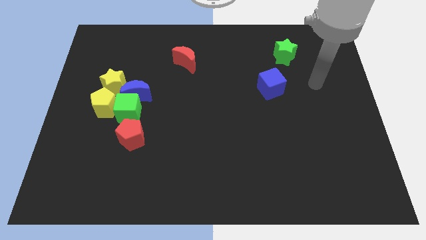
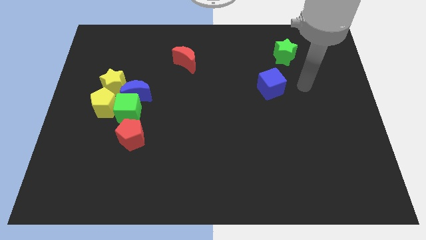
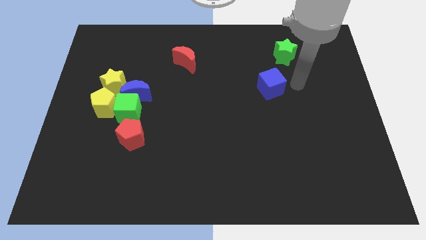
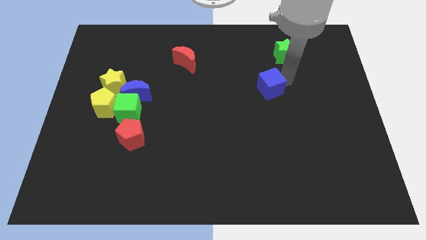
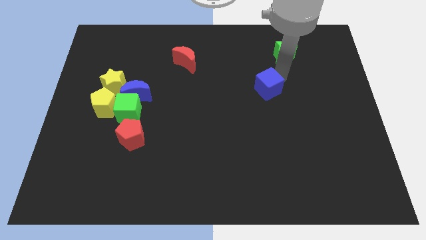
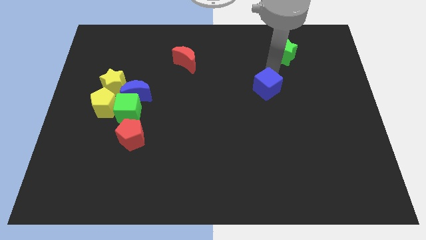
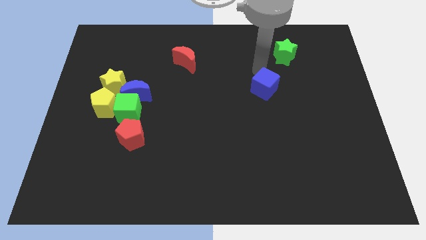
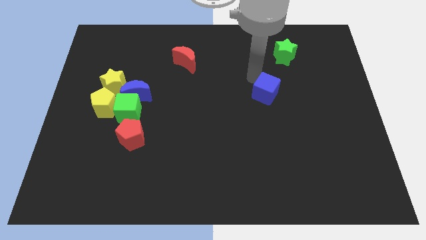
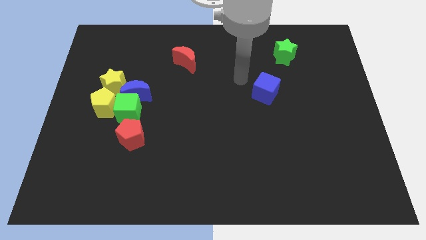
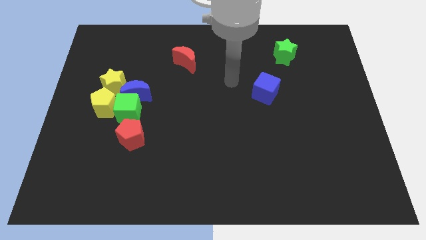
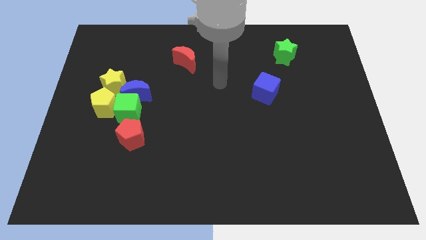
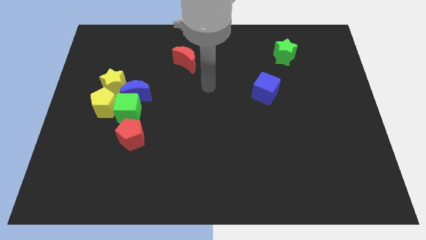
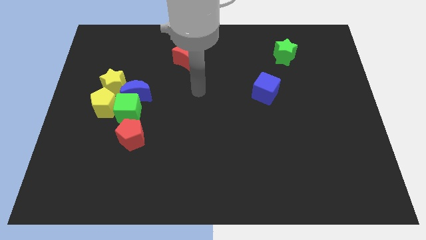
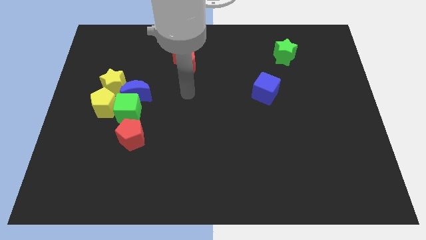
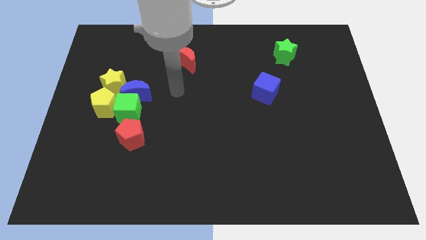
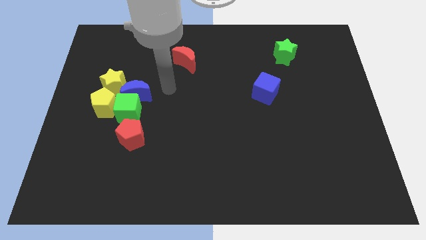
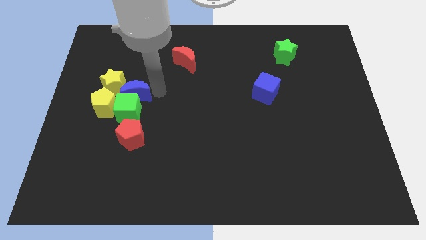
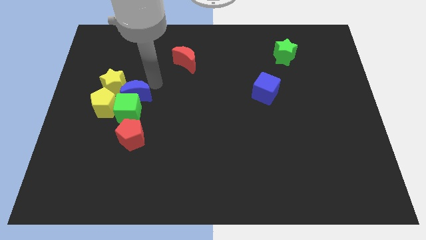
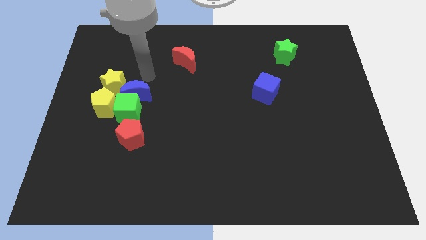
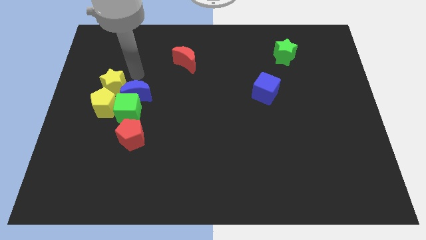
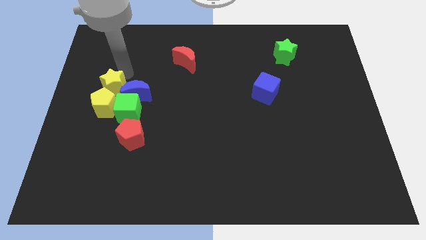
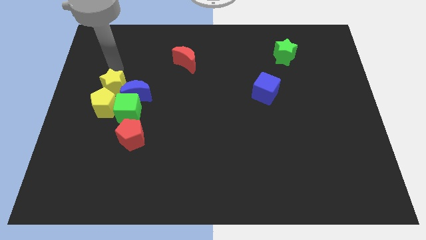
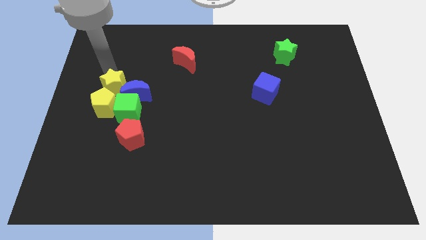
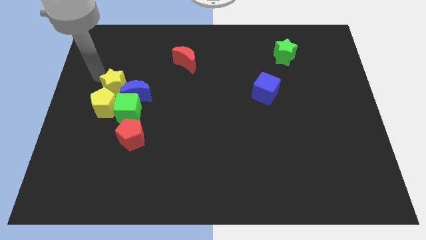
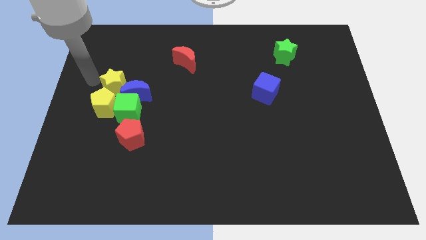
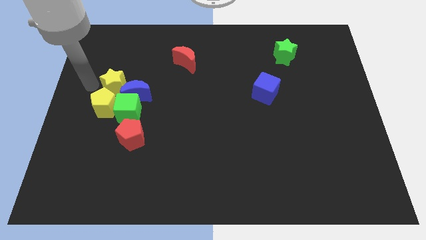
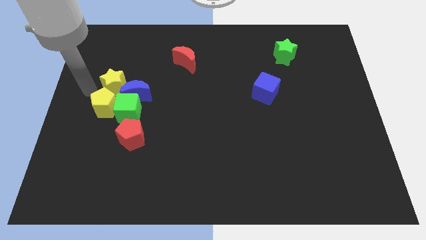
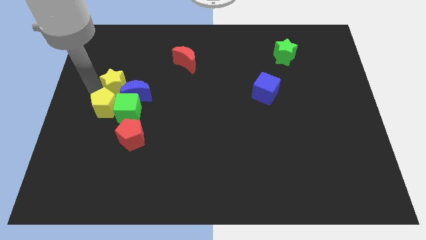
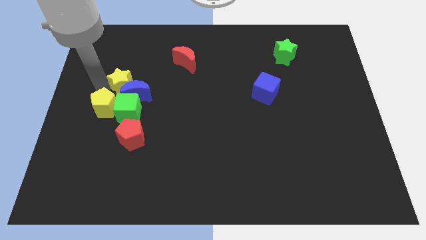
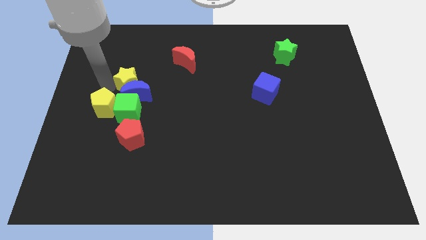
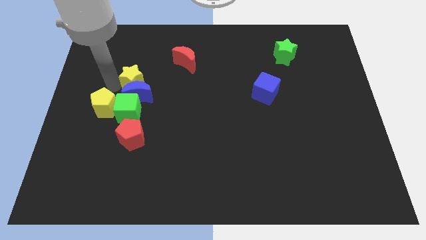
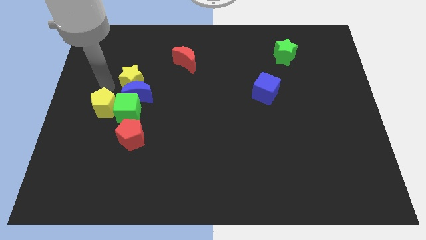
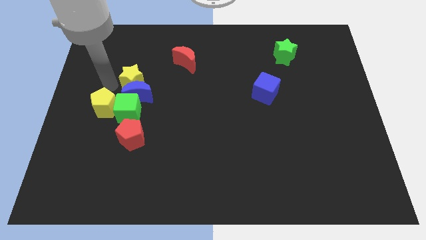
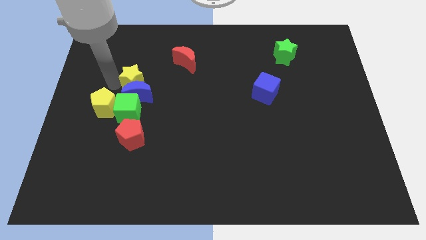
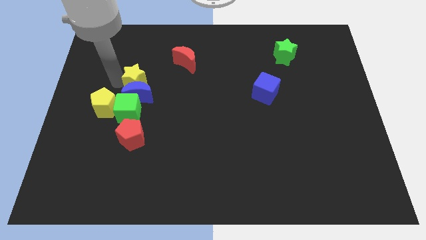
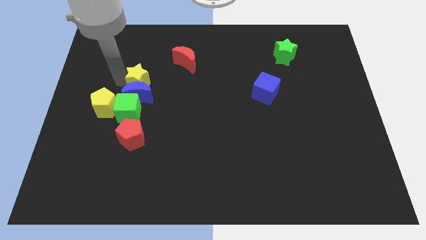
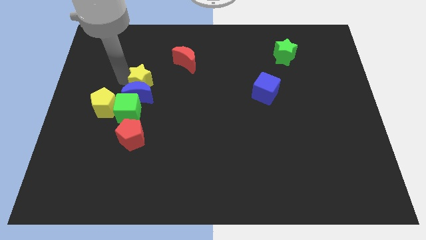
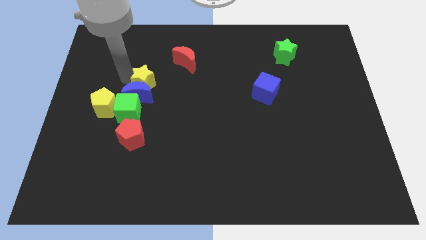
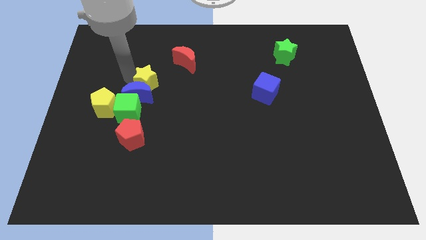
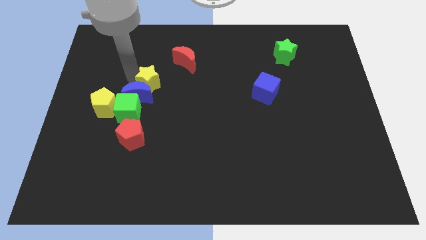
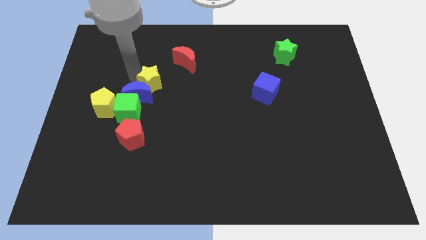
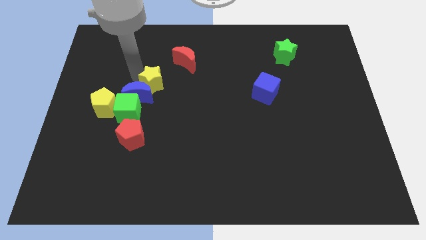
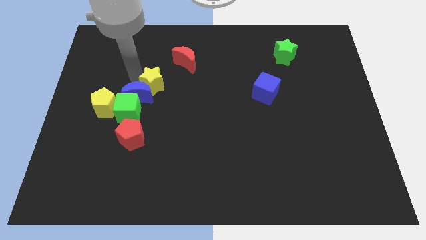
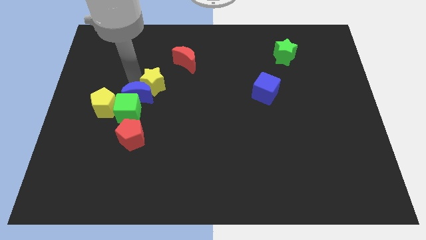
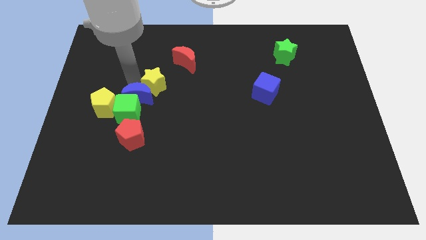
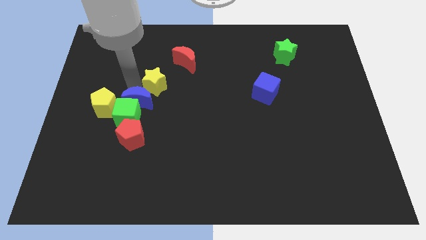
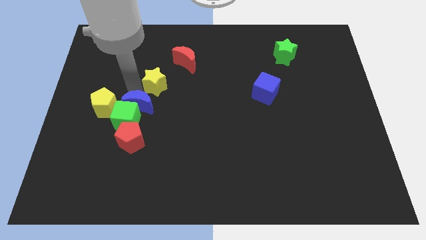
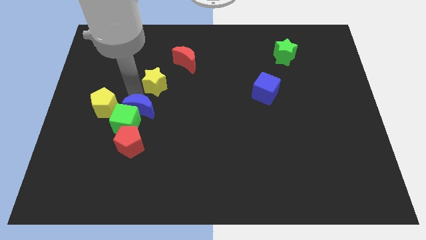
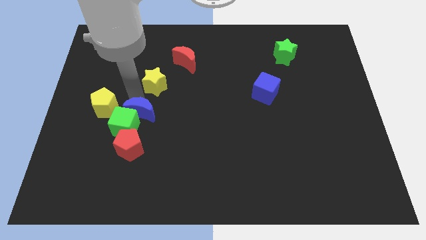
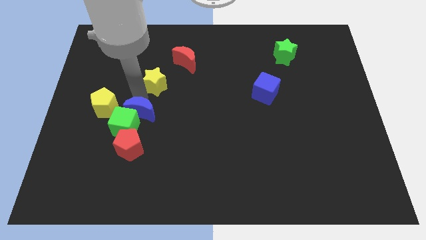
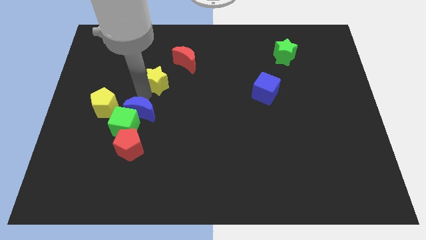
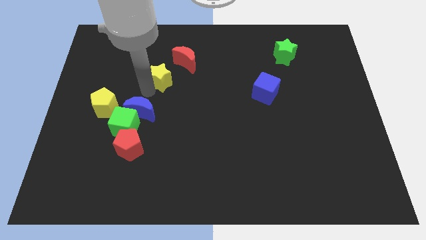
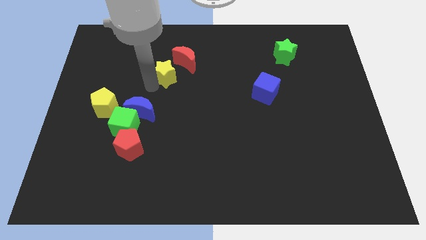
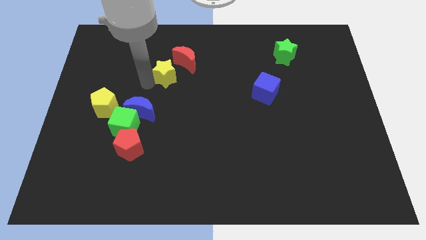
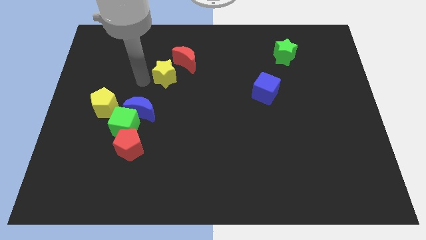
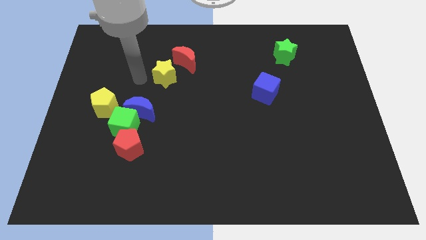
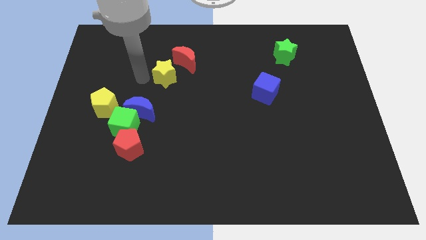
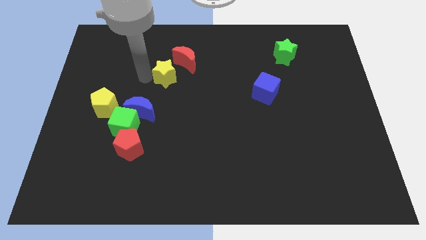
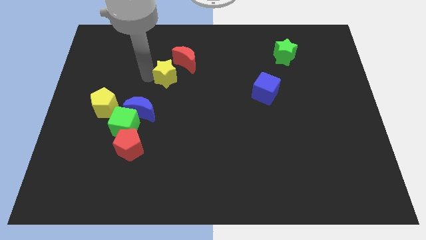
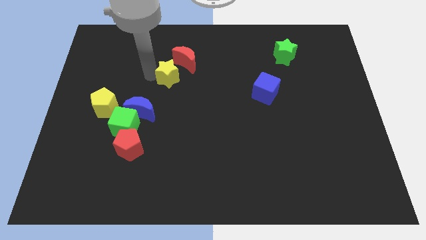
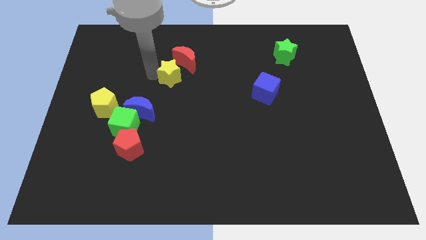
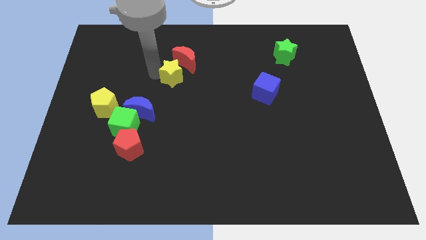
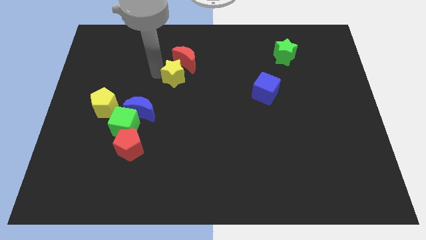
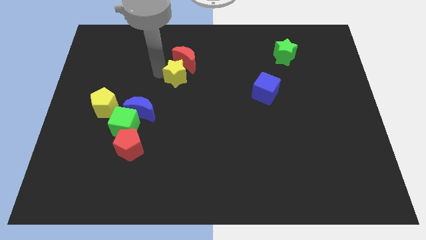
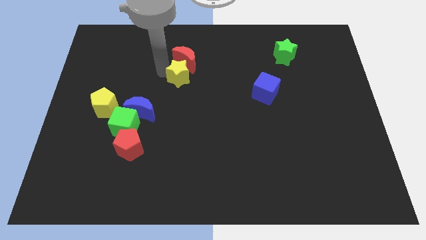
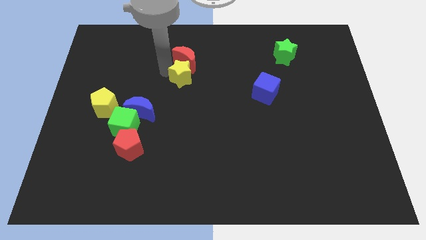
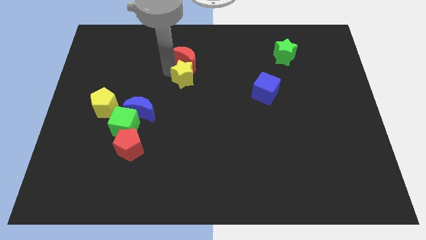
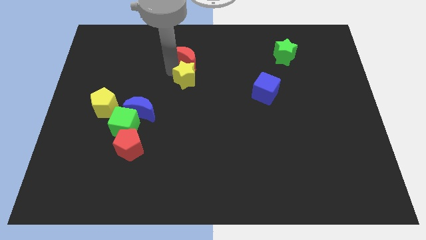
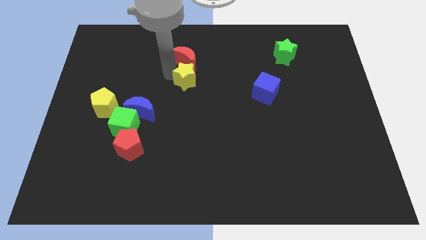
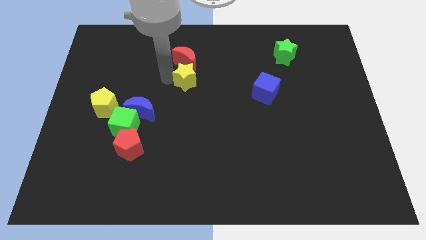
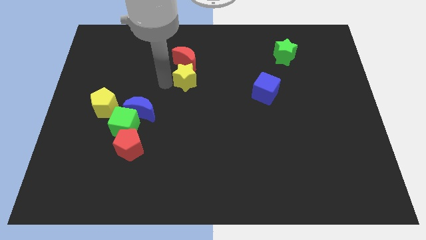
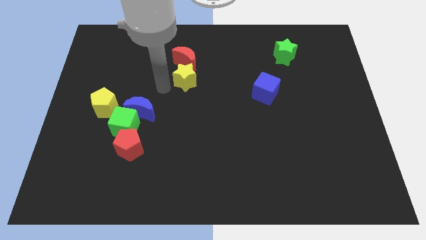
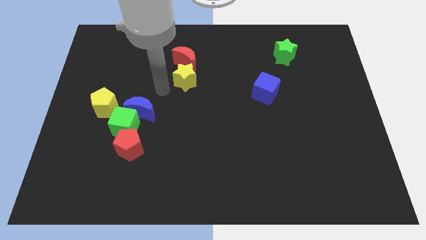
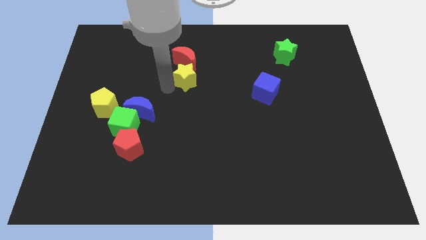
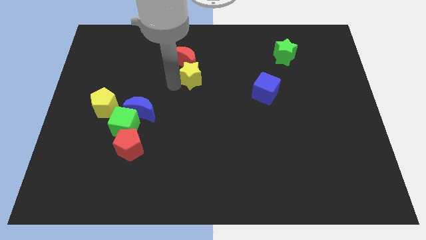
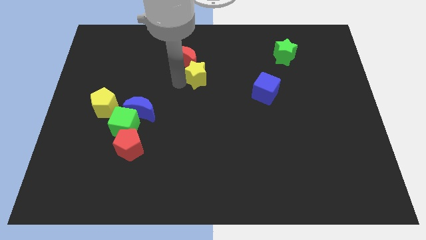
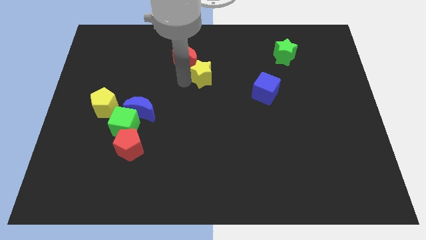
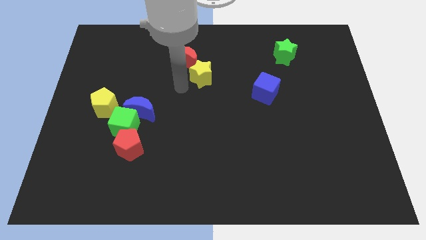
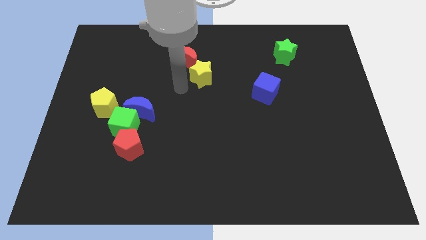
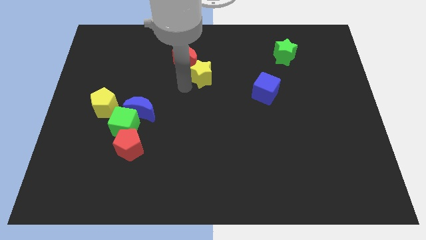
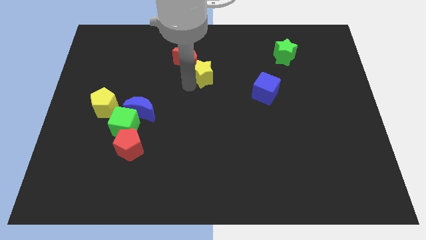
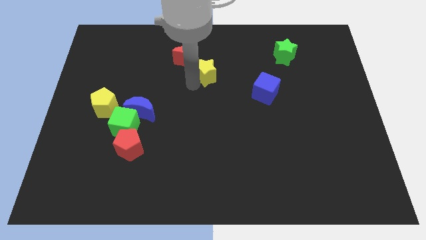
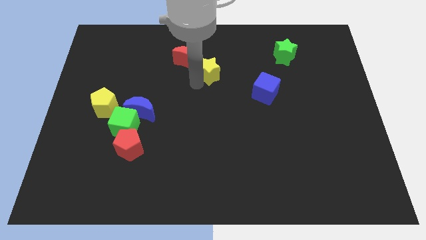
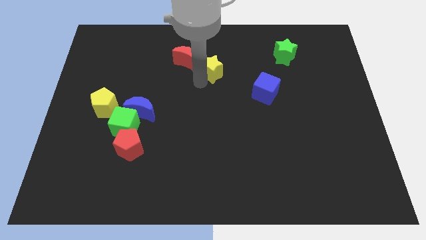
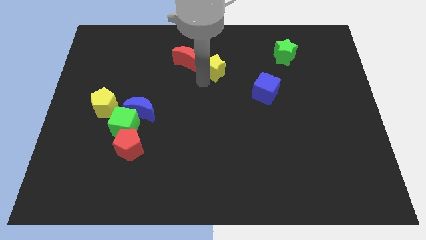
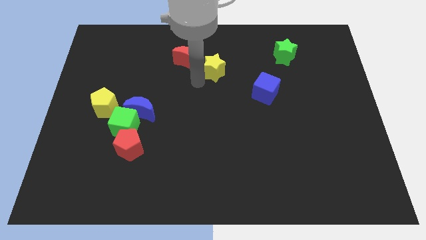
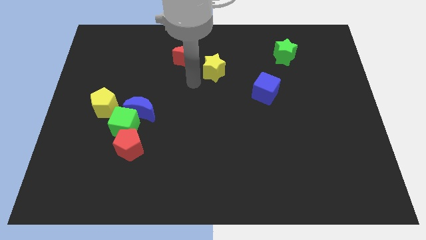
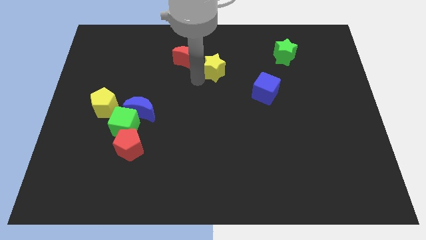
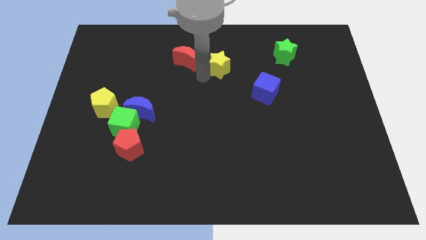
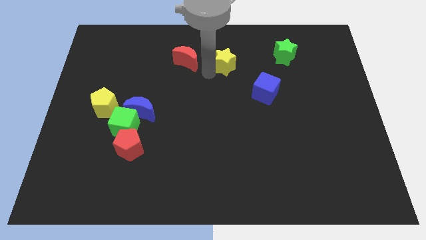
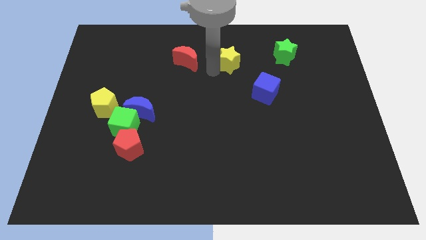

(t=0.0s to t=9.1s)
put the yellow star to the left of the green star
